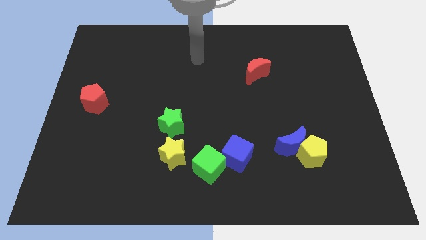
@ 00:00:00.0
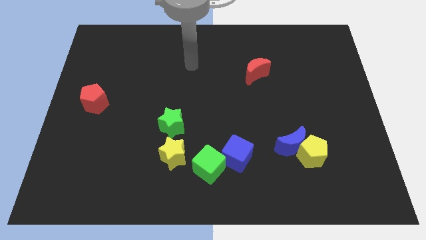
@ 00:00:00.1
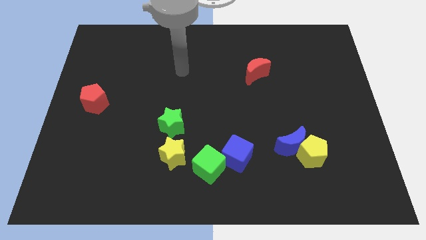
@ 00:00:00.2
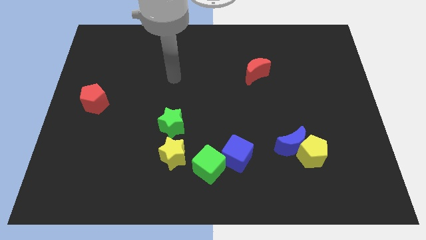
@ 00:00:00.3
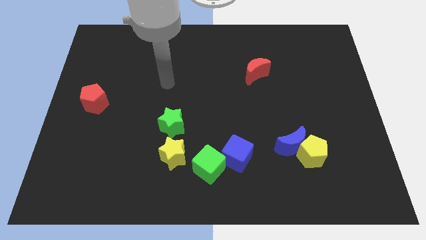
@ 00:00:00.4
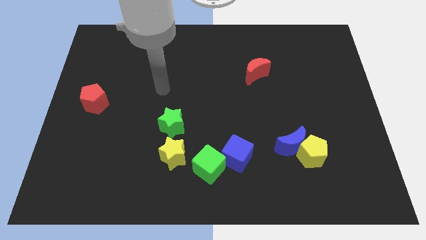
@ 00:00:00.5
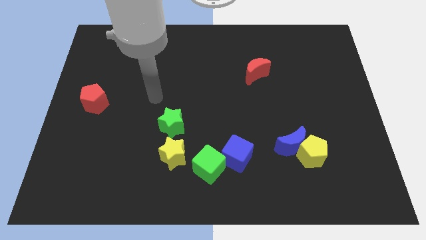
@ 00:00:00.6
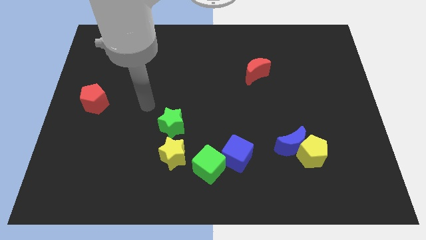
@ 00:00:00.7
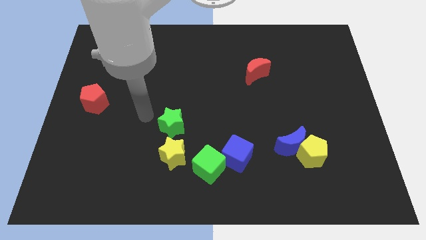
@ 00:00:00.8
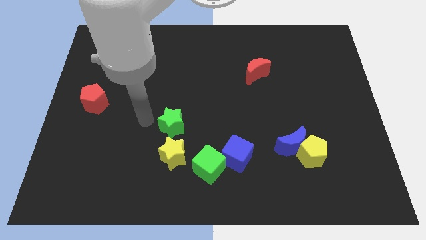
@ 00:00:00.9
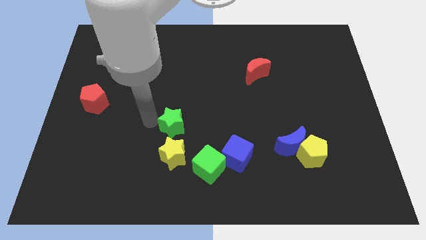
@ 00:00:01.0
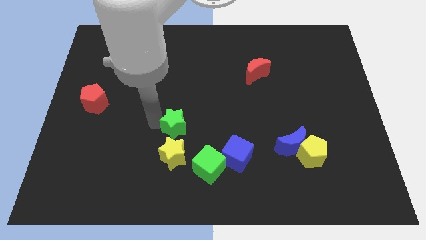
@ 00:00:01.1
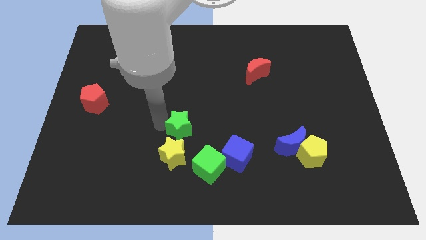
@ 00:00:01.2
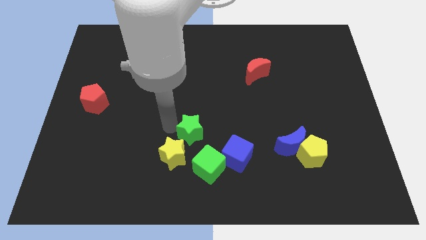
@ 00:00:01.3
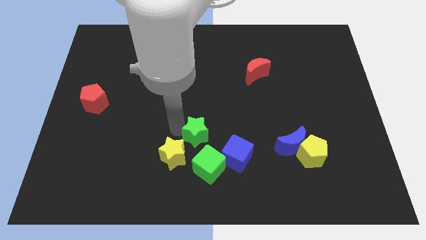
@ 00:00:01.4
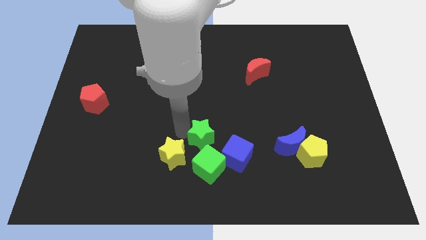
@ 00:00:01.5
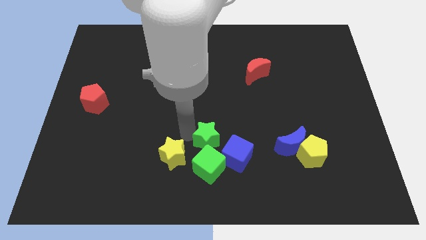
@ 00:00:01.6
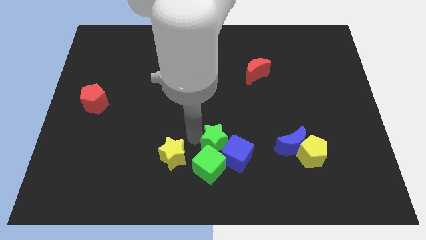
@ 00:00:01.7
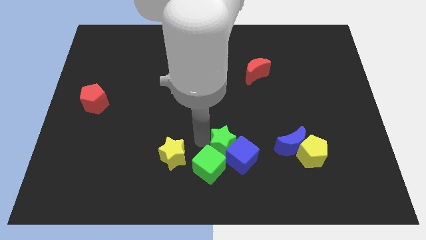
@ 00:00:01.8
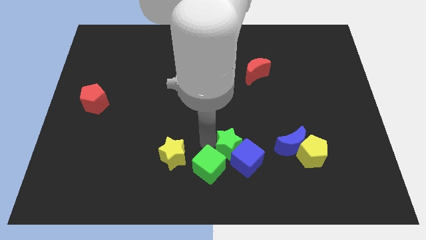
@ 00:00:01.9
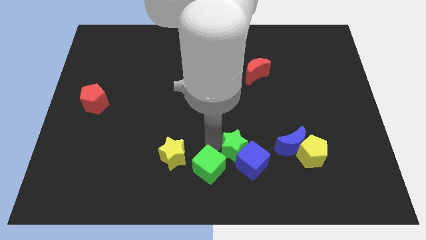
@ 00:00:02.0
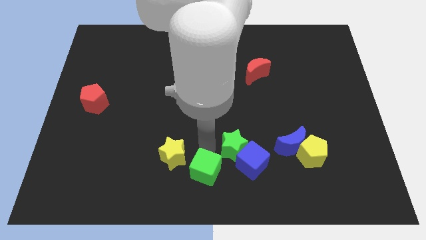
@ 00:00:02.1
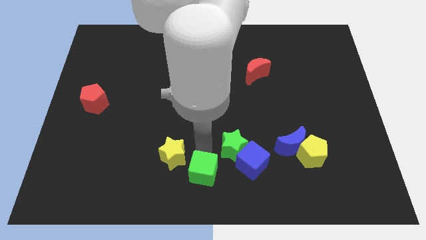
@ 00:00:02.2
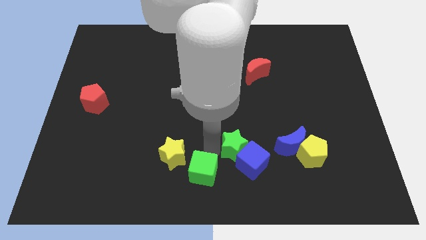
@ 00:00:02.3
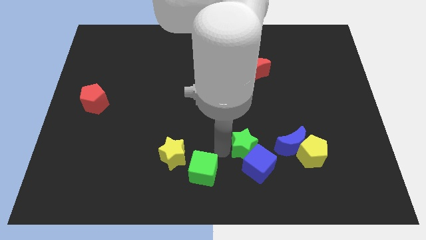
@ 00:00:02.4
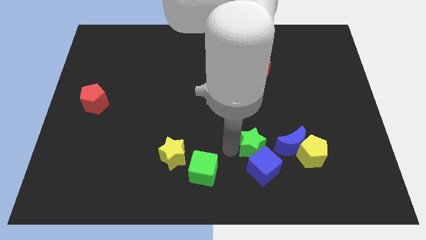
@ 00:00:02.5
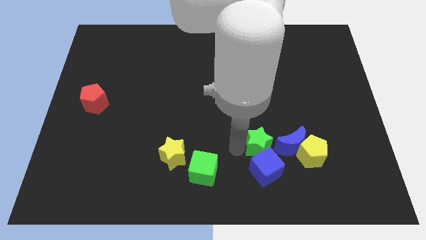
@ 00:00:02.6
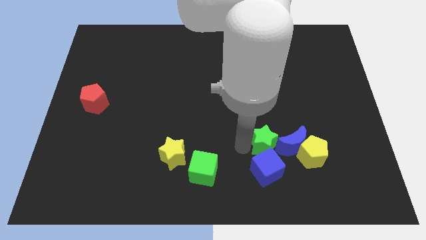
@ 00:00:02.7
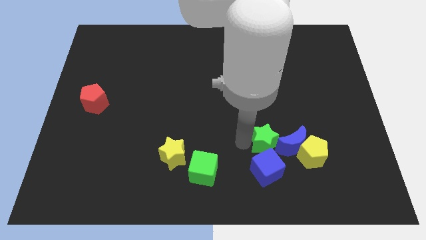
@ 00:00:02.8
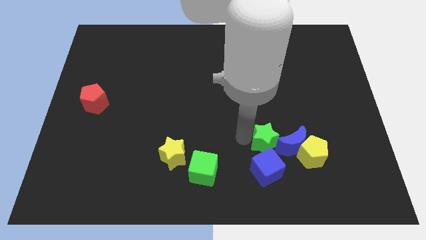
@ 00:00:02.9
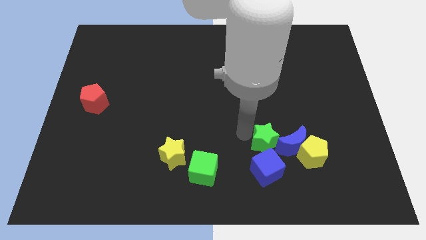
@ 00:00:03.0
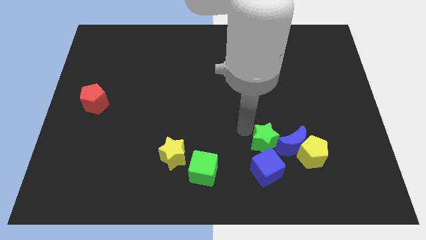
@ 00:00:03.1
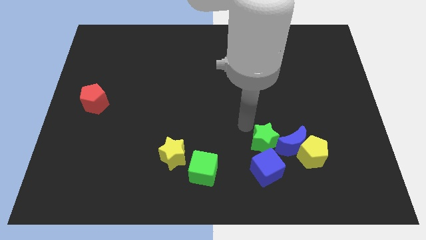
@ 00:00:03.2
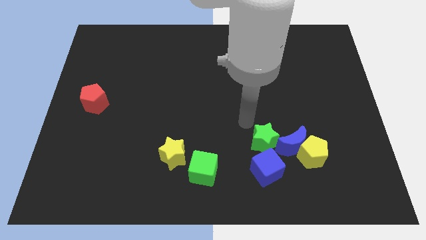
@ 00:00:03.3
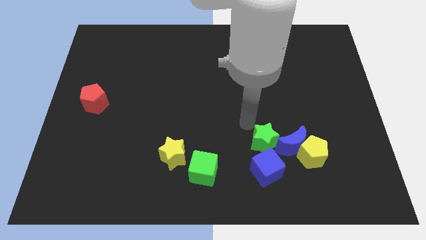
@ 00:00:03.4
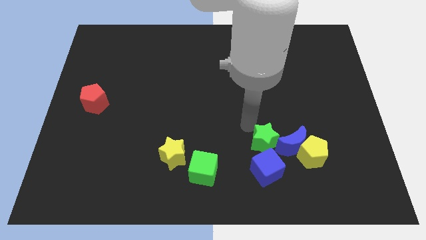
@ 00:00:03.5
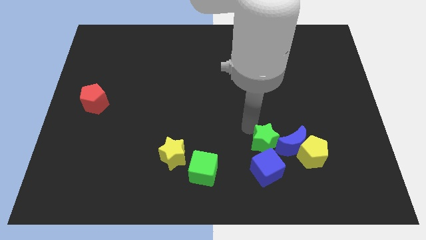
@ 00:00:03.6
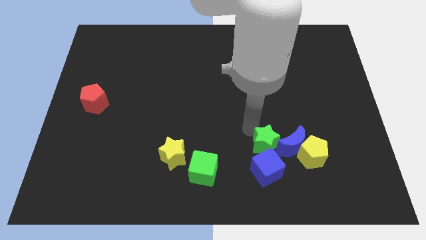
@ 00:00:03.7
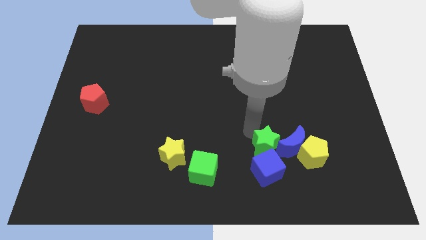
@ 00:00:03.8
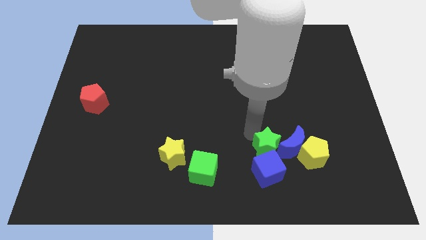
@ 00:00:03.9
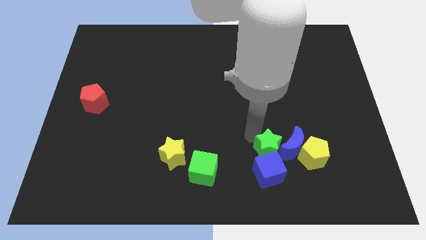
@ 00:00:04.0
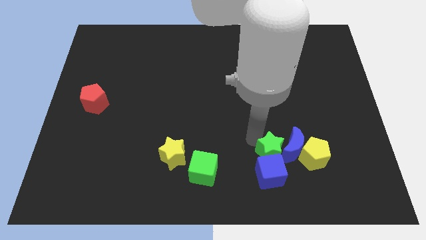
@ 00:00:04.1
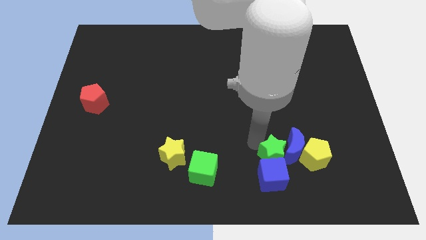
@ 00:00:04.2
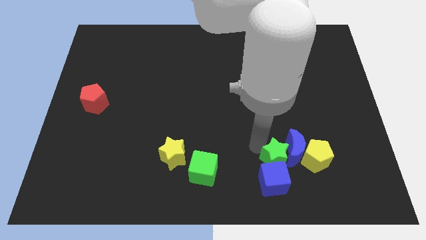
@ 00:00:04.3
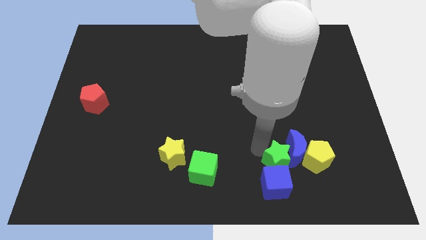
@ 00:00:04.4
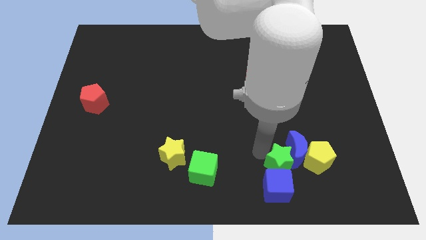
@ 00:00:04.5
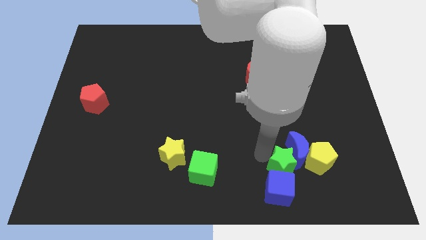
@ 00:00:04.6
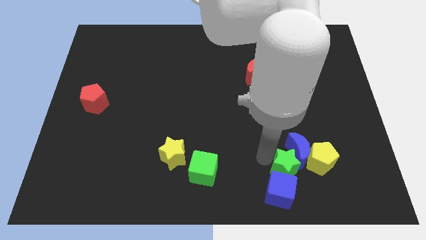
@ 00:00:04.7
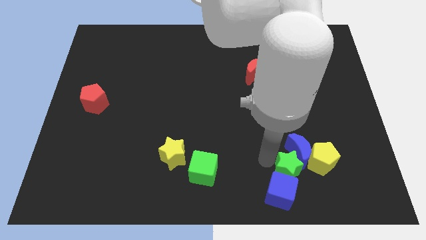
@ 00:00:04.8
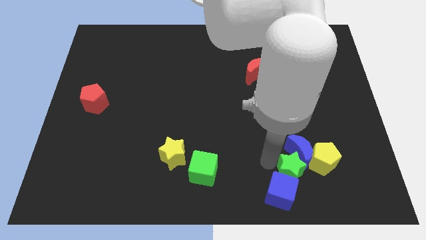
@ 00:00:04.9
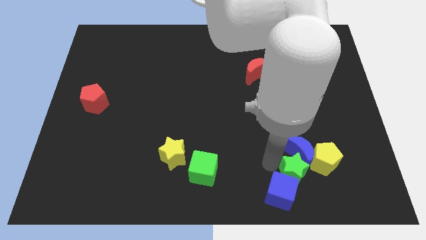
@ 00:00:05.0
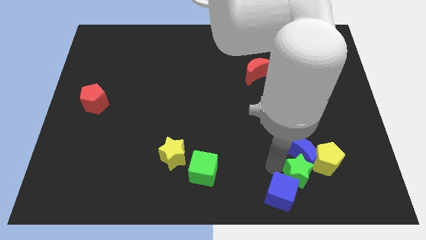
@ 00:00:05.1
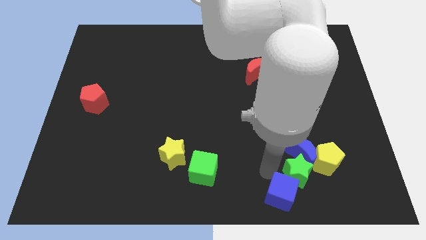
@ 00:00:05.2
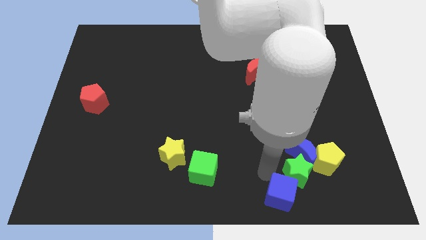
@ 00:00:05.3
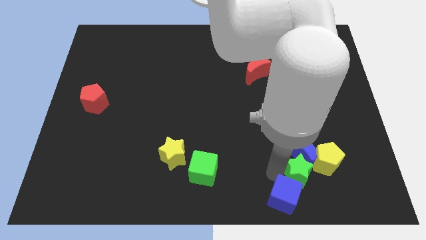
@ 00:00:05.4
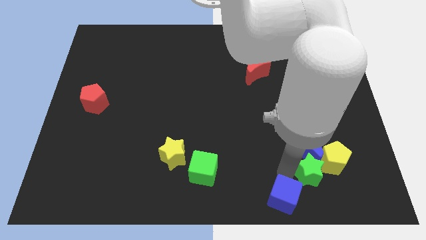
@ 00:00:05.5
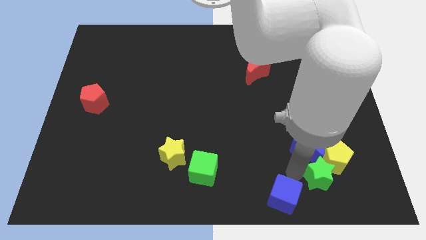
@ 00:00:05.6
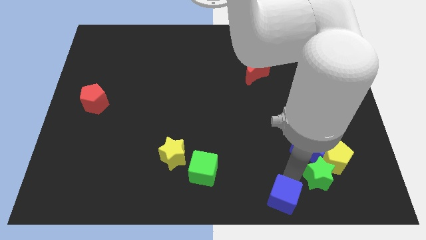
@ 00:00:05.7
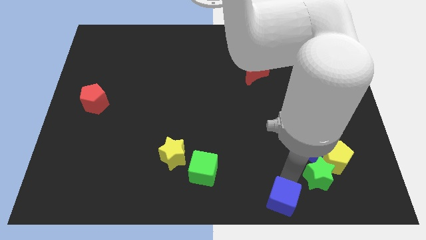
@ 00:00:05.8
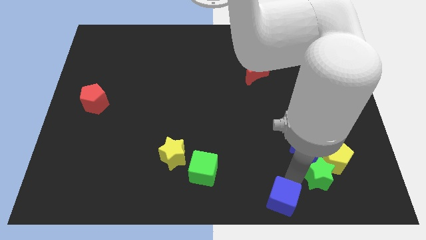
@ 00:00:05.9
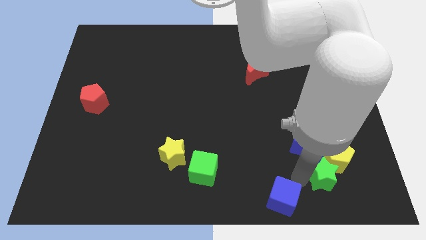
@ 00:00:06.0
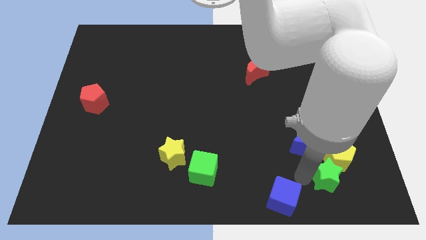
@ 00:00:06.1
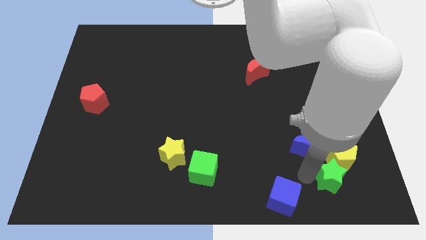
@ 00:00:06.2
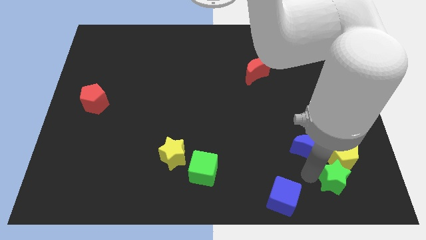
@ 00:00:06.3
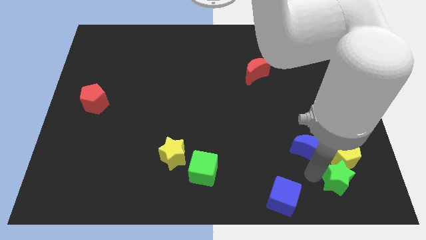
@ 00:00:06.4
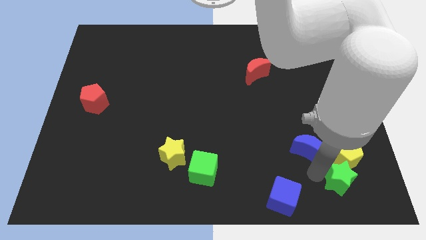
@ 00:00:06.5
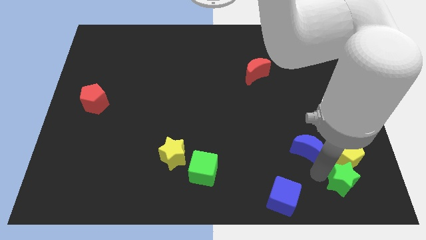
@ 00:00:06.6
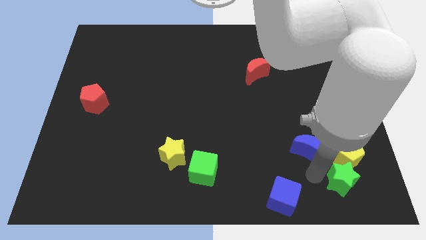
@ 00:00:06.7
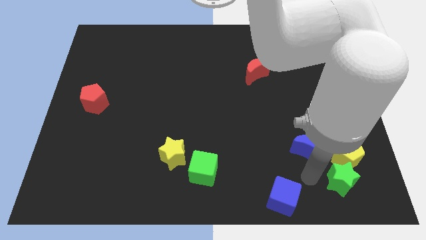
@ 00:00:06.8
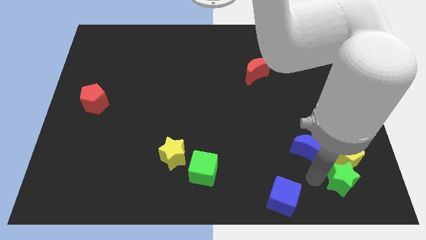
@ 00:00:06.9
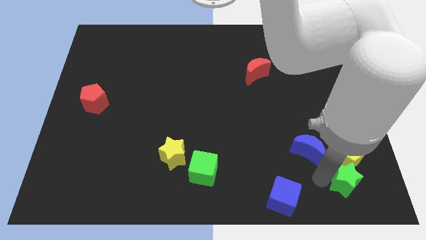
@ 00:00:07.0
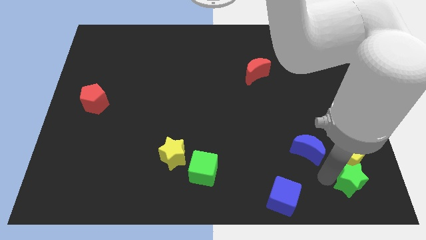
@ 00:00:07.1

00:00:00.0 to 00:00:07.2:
push the green star to the bottom right
